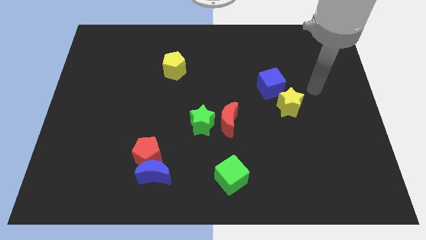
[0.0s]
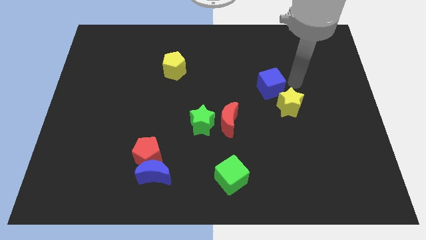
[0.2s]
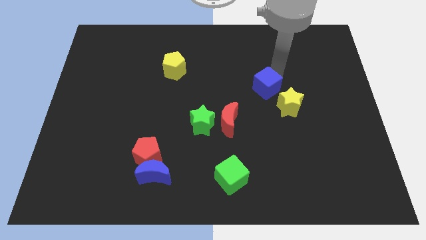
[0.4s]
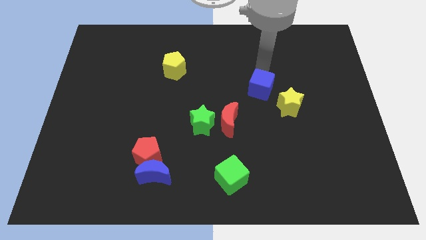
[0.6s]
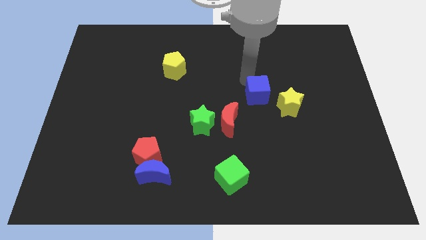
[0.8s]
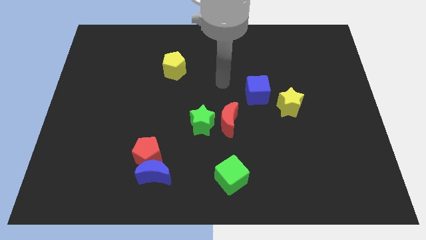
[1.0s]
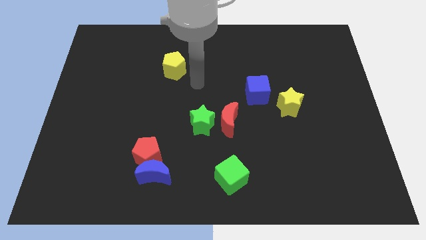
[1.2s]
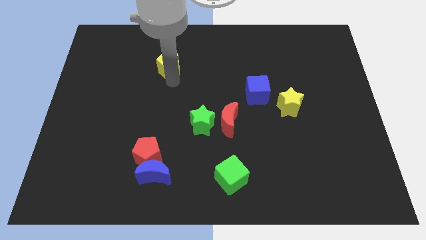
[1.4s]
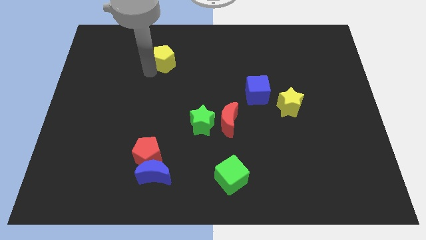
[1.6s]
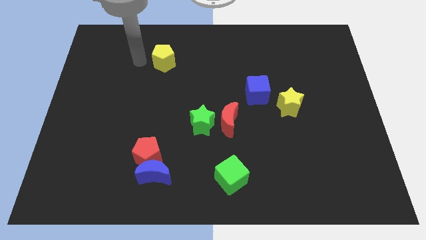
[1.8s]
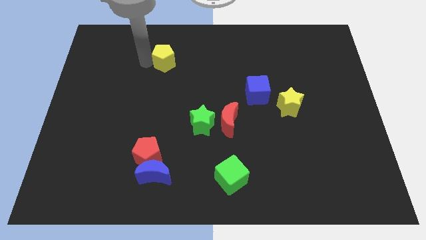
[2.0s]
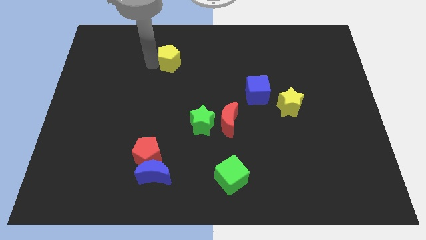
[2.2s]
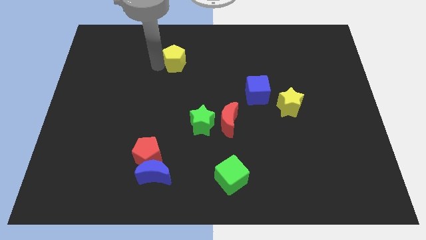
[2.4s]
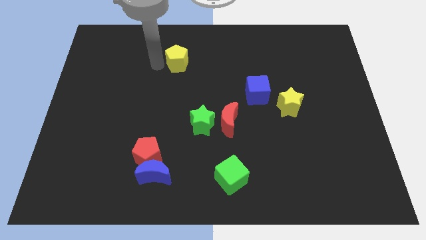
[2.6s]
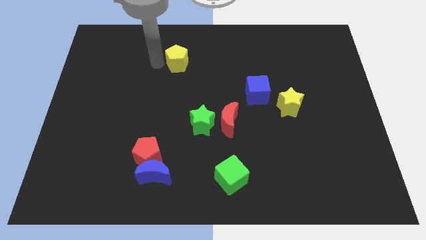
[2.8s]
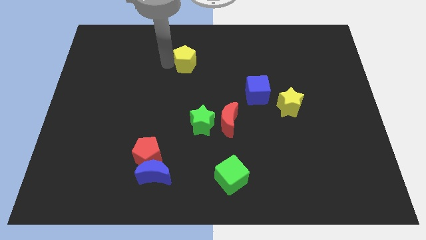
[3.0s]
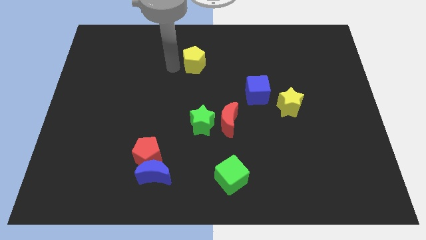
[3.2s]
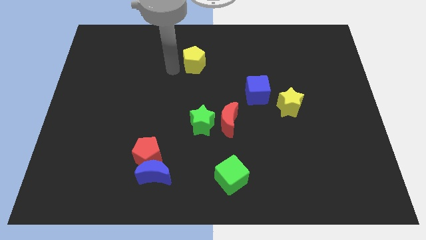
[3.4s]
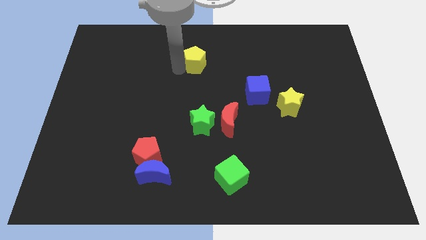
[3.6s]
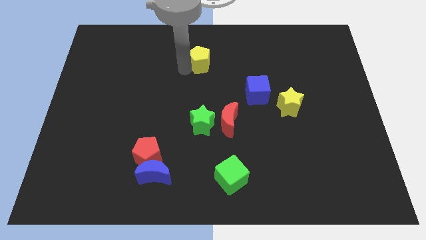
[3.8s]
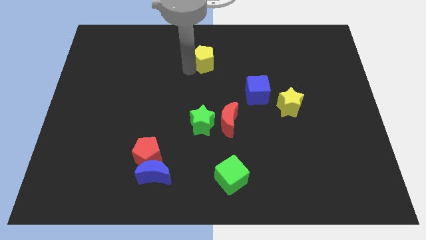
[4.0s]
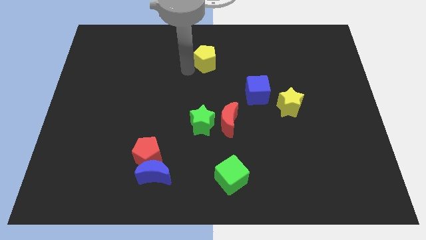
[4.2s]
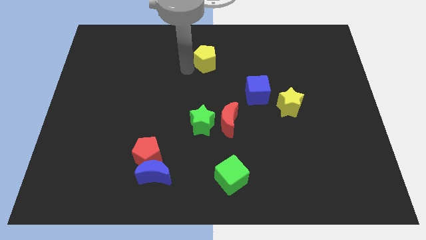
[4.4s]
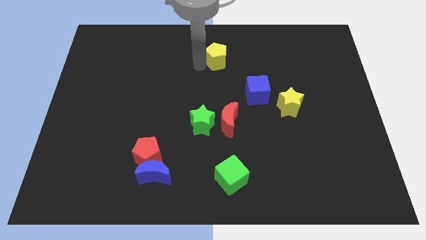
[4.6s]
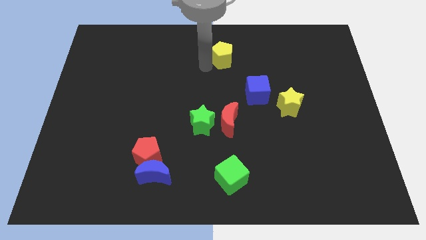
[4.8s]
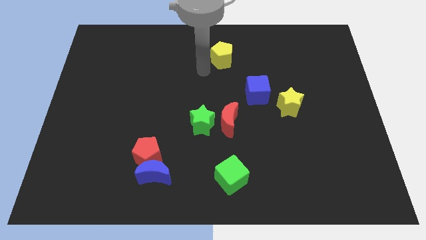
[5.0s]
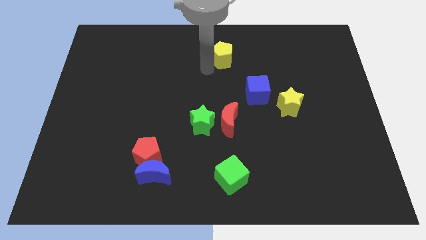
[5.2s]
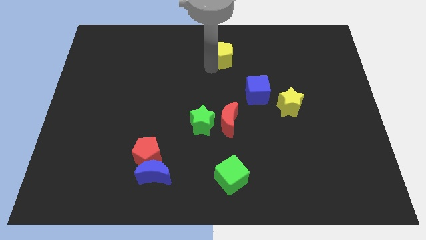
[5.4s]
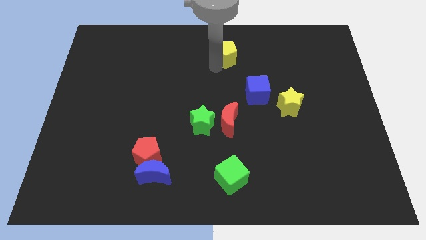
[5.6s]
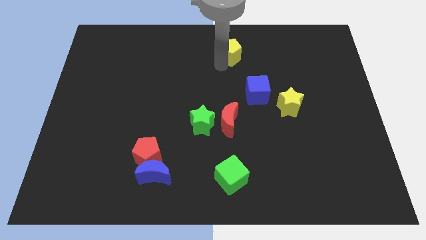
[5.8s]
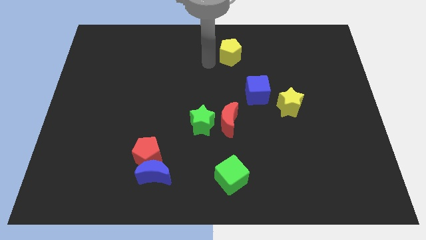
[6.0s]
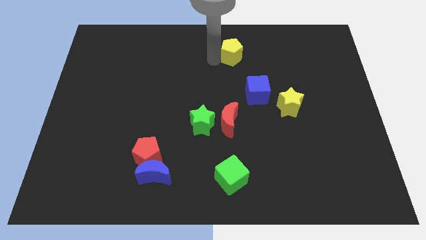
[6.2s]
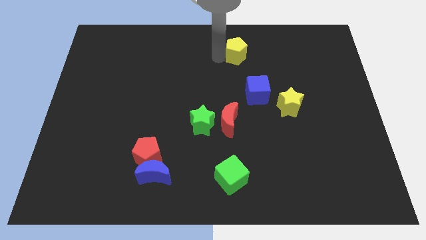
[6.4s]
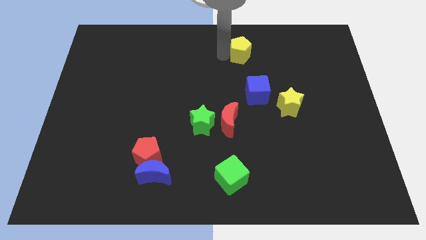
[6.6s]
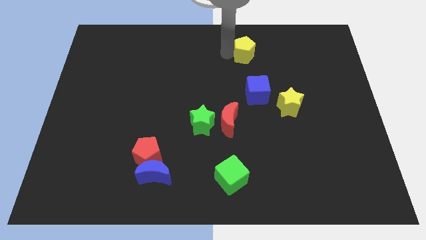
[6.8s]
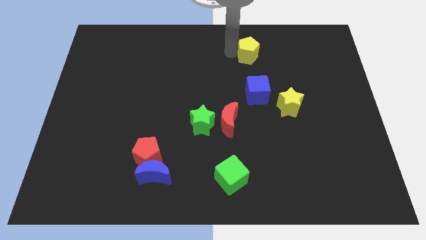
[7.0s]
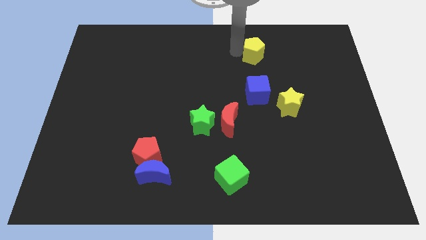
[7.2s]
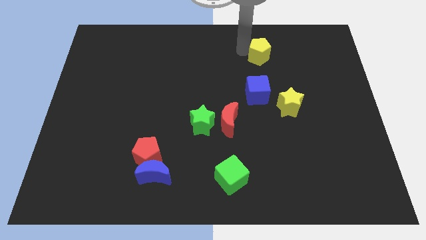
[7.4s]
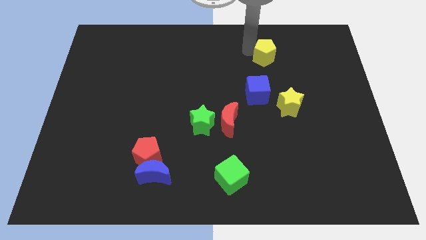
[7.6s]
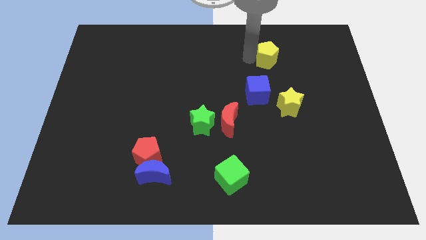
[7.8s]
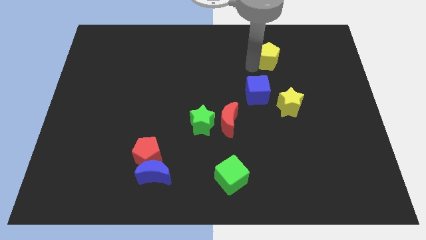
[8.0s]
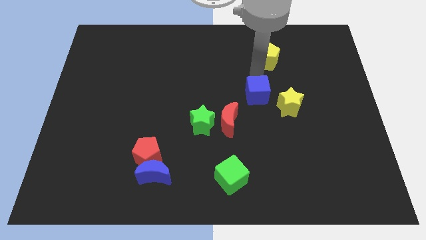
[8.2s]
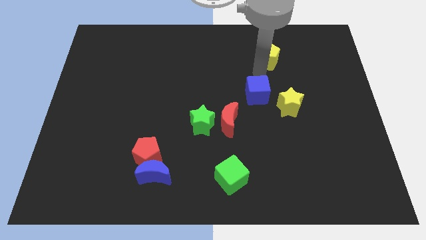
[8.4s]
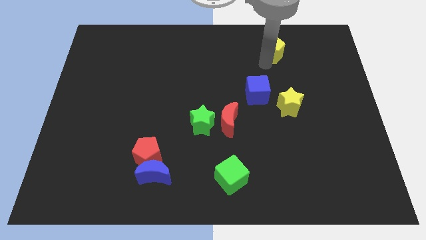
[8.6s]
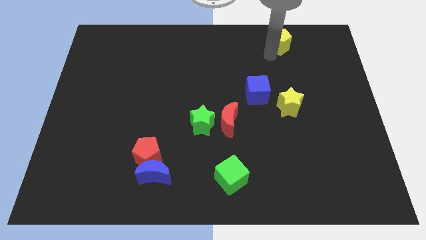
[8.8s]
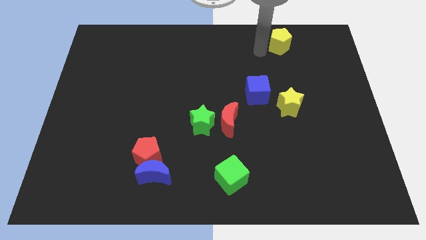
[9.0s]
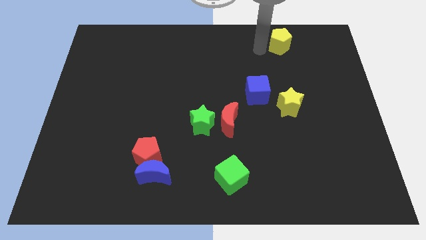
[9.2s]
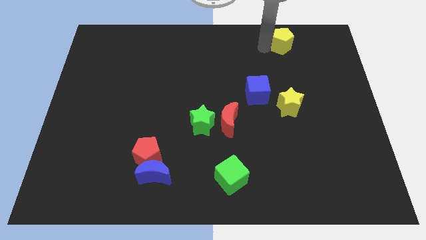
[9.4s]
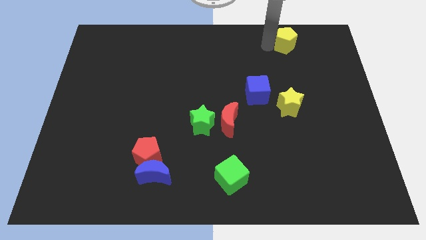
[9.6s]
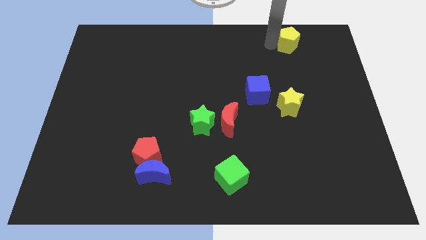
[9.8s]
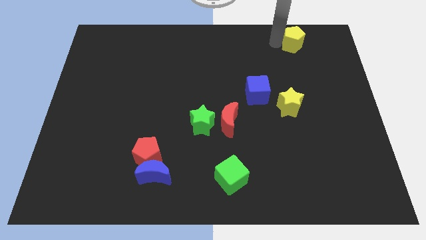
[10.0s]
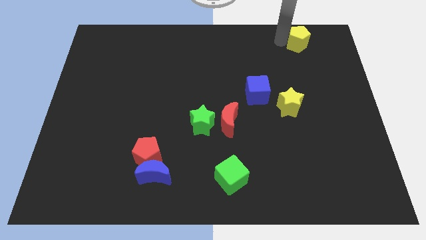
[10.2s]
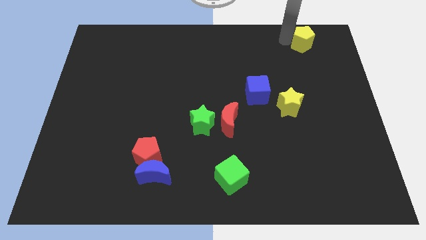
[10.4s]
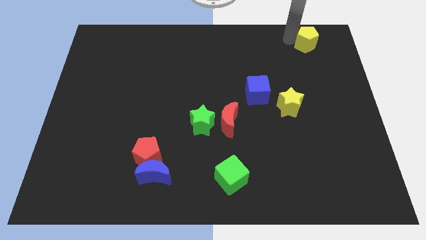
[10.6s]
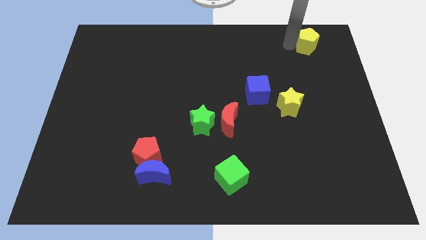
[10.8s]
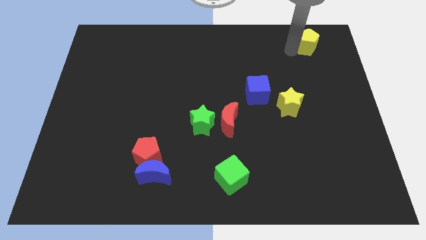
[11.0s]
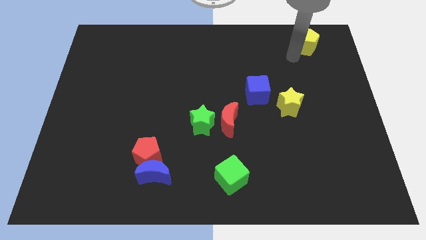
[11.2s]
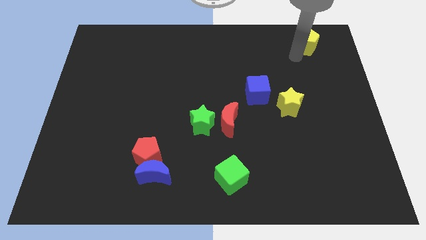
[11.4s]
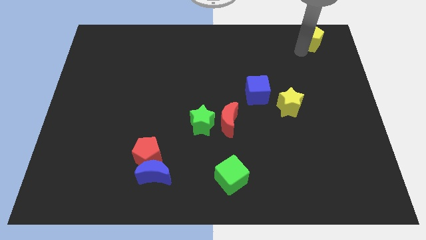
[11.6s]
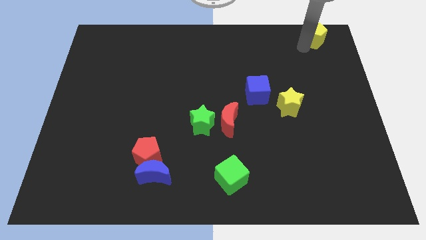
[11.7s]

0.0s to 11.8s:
put the yellow pentagon to the top right corner

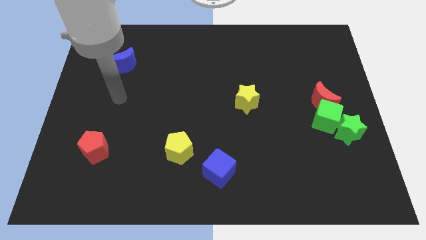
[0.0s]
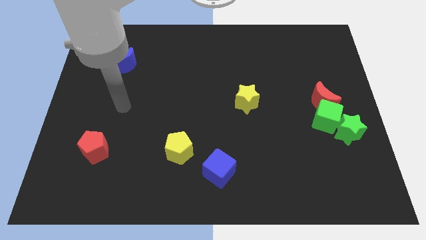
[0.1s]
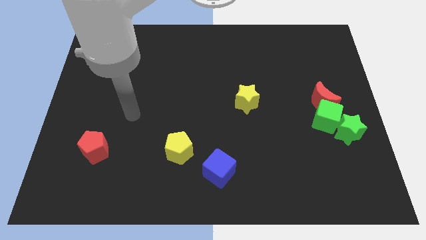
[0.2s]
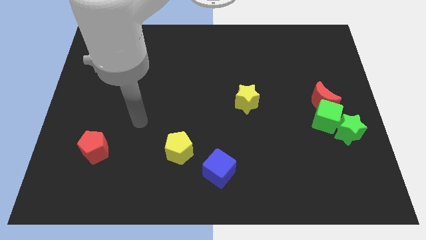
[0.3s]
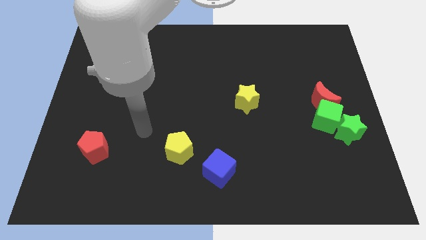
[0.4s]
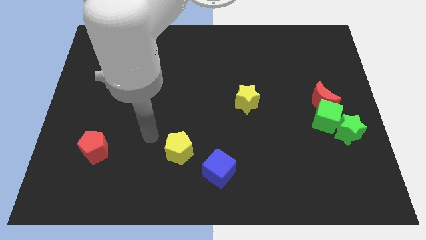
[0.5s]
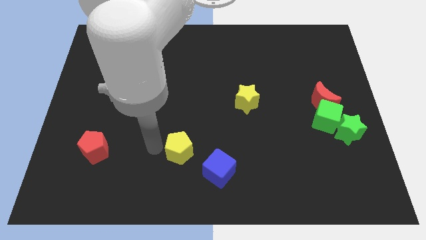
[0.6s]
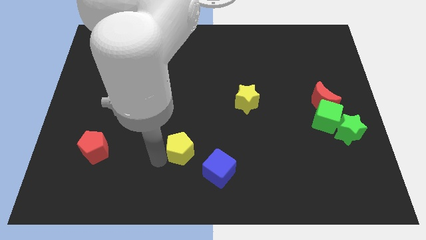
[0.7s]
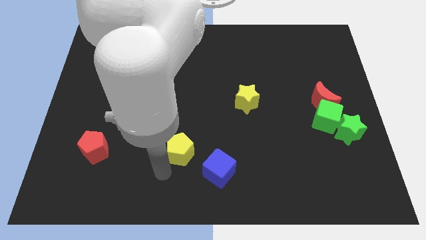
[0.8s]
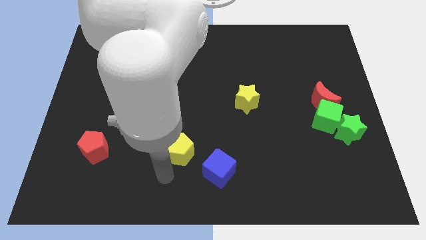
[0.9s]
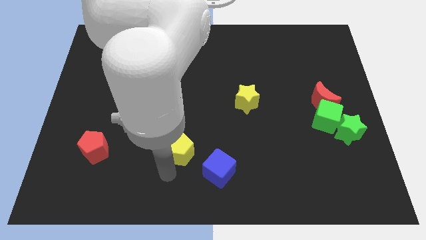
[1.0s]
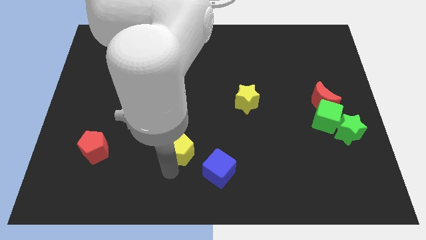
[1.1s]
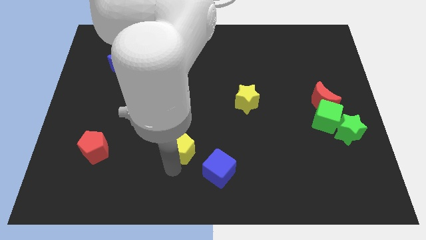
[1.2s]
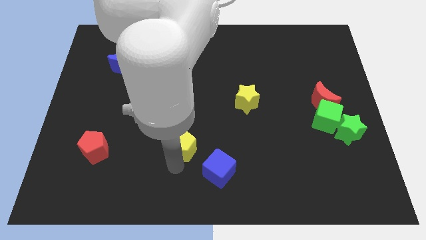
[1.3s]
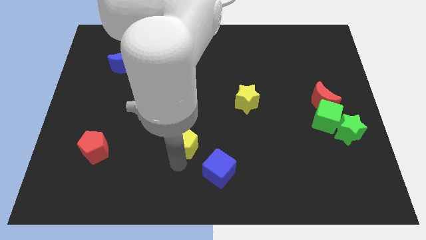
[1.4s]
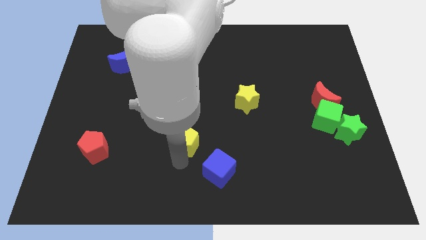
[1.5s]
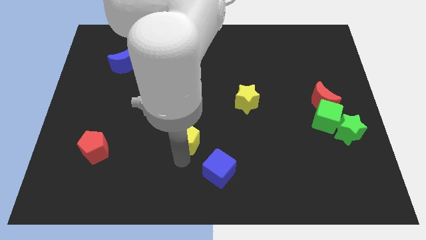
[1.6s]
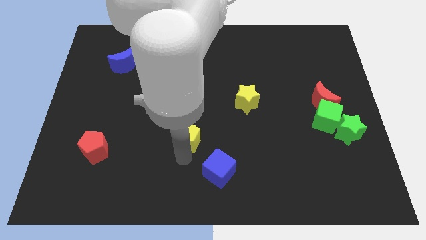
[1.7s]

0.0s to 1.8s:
move the yellow pentagon to the middle

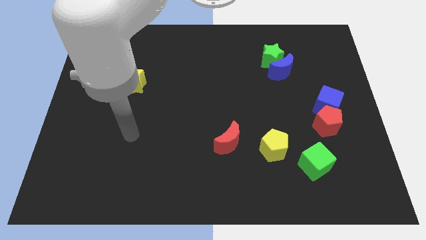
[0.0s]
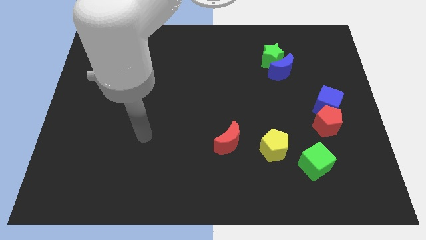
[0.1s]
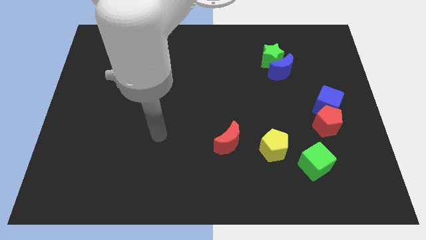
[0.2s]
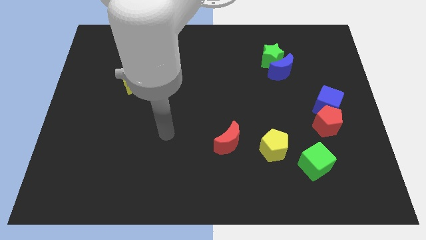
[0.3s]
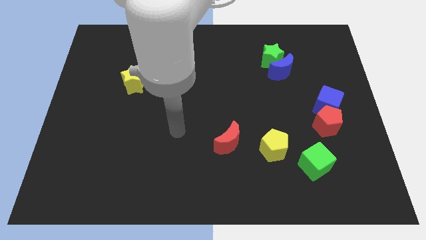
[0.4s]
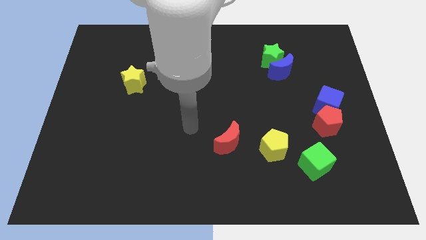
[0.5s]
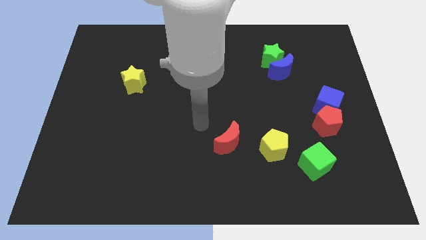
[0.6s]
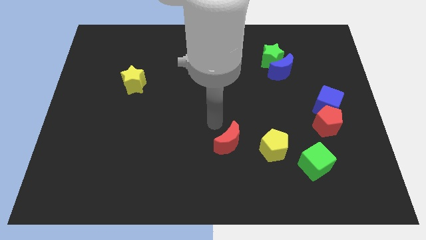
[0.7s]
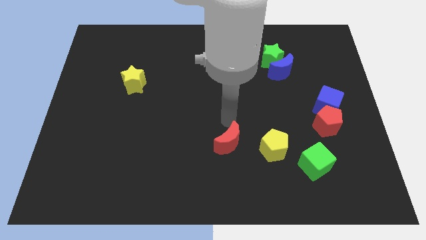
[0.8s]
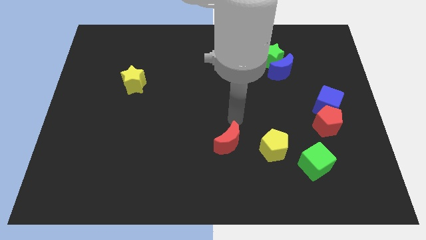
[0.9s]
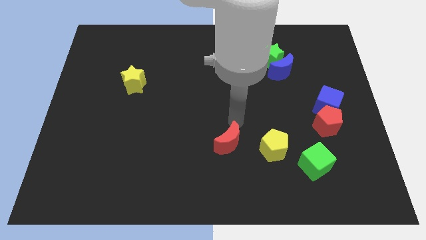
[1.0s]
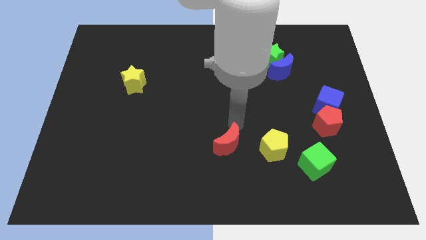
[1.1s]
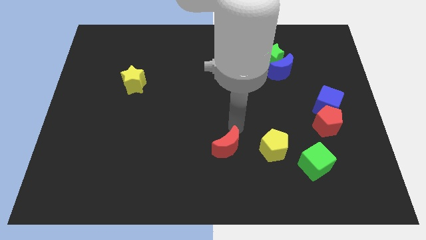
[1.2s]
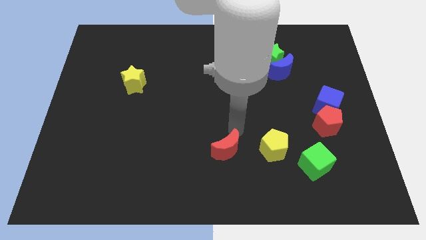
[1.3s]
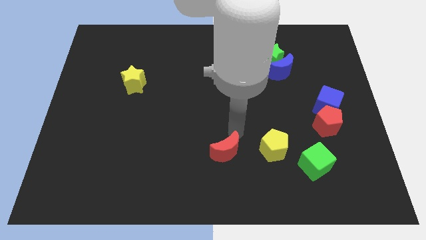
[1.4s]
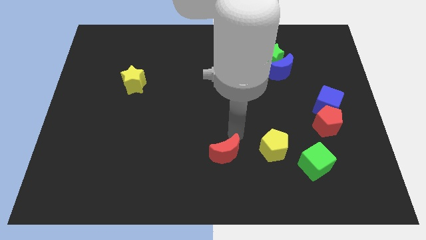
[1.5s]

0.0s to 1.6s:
slide the red moon to the bottom
